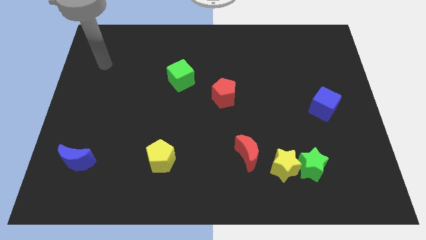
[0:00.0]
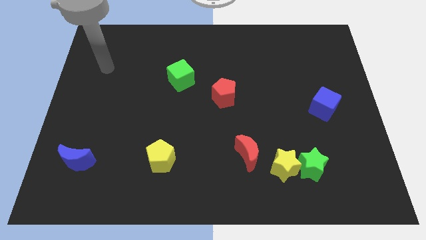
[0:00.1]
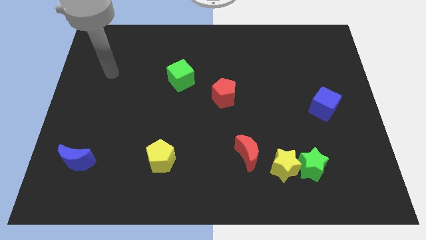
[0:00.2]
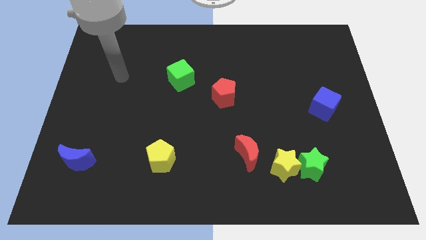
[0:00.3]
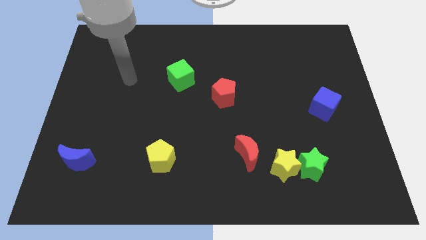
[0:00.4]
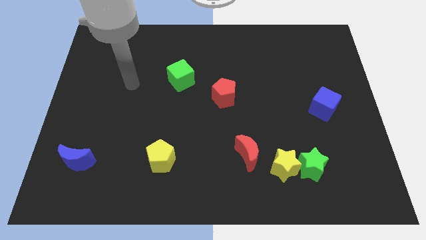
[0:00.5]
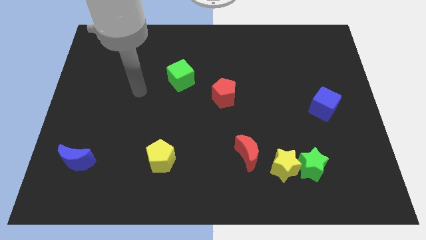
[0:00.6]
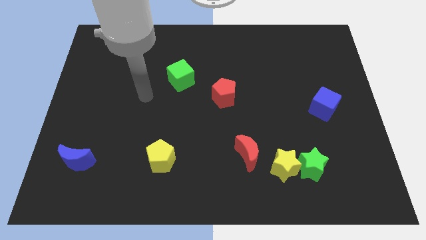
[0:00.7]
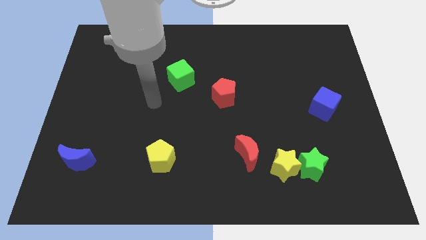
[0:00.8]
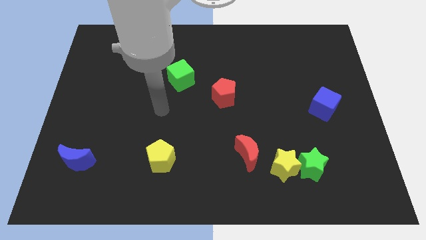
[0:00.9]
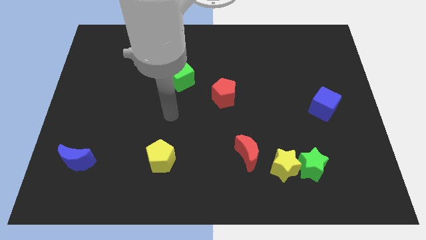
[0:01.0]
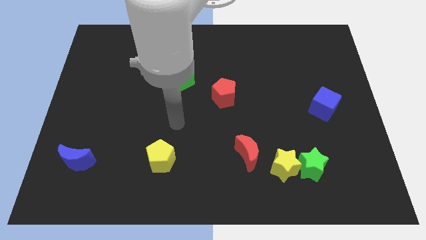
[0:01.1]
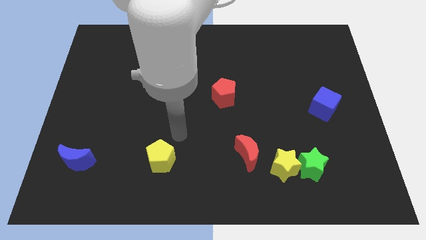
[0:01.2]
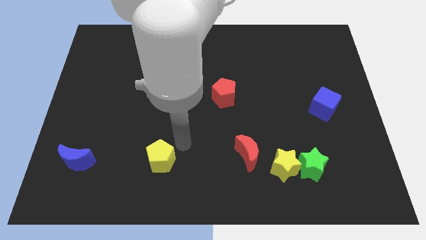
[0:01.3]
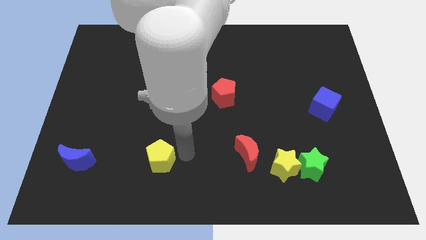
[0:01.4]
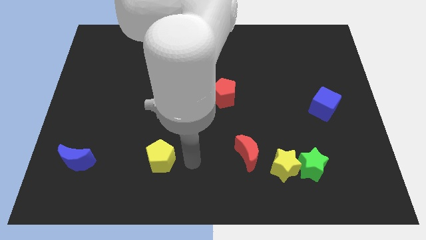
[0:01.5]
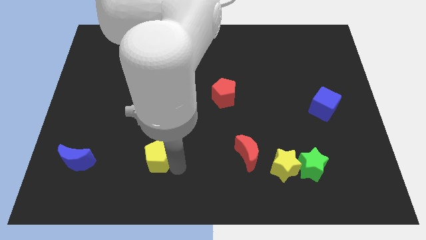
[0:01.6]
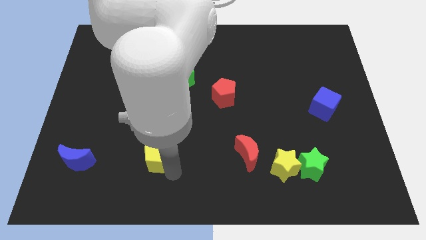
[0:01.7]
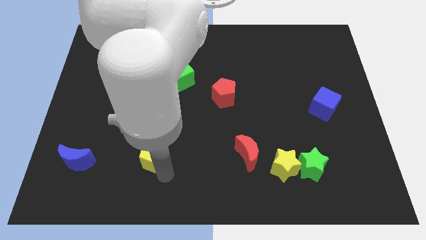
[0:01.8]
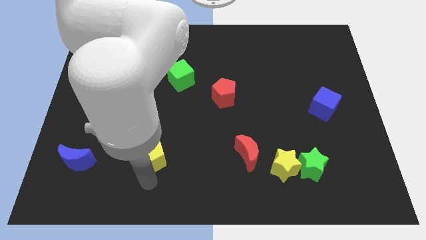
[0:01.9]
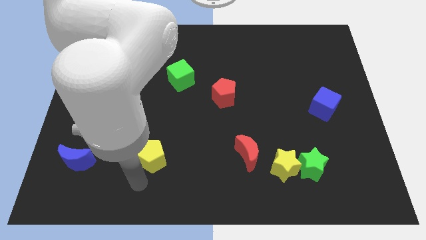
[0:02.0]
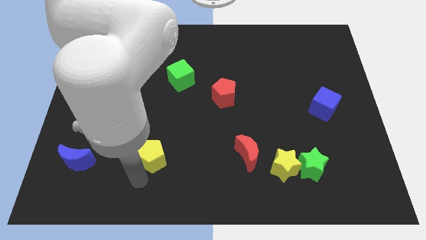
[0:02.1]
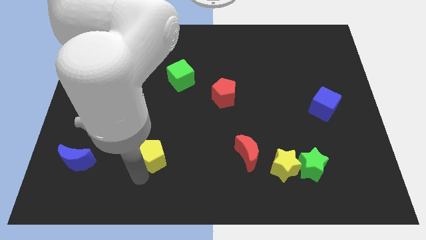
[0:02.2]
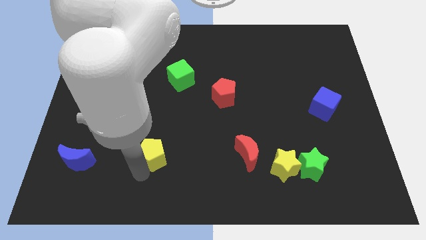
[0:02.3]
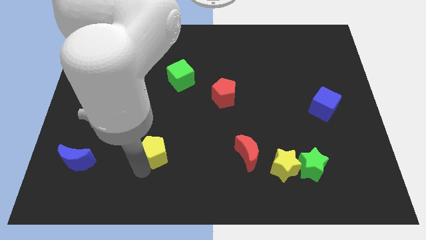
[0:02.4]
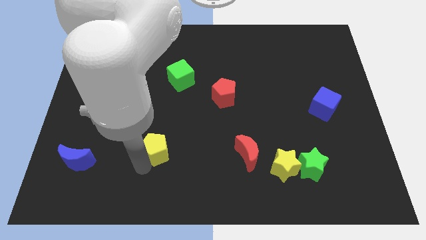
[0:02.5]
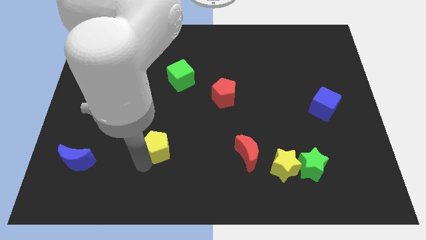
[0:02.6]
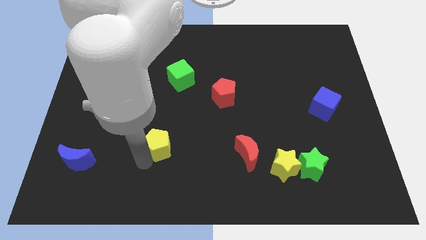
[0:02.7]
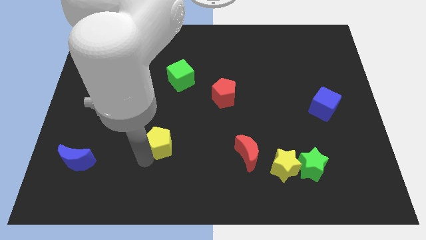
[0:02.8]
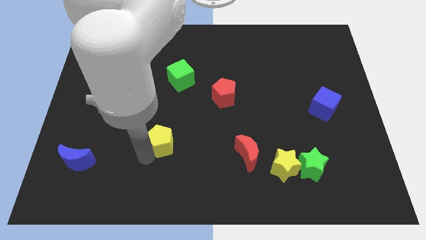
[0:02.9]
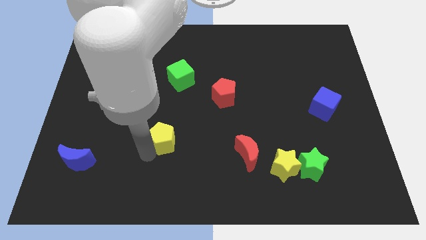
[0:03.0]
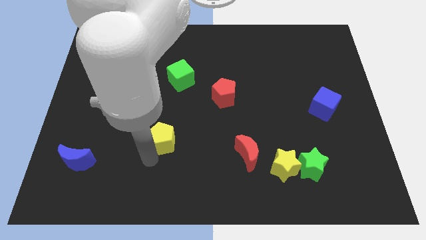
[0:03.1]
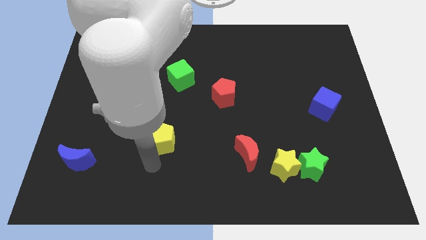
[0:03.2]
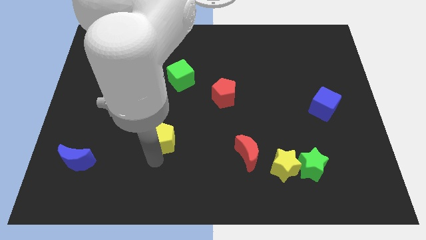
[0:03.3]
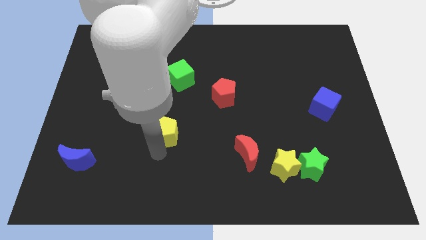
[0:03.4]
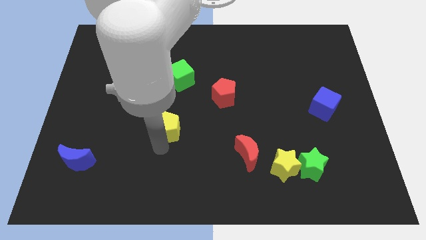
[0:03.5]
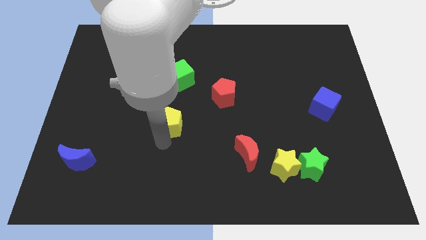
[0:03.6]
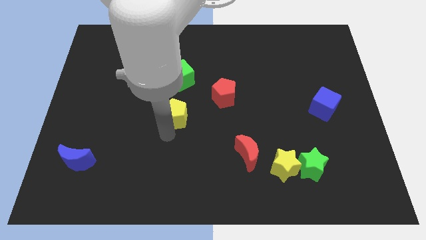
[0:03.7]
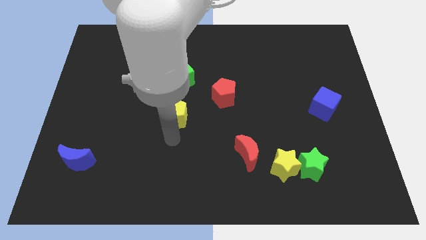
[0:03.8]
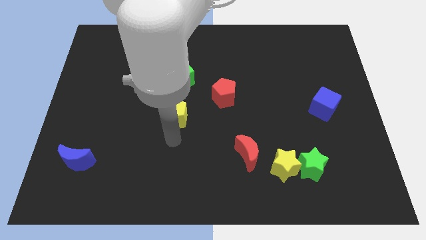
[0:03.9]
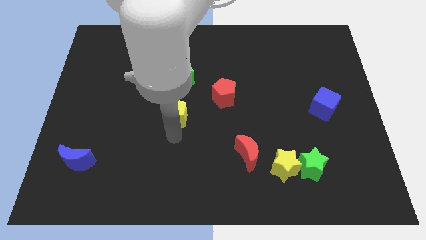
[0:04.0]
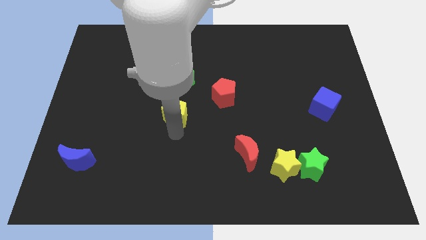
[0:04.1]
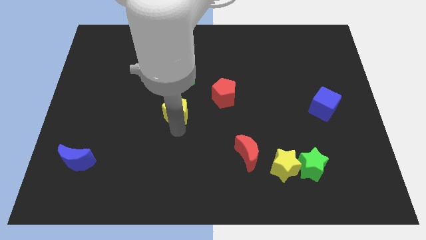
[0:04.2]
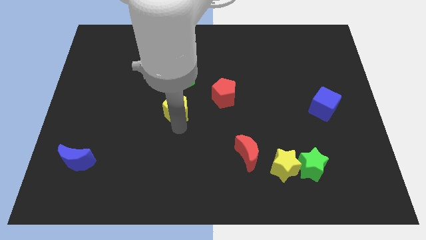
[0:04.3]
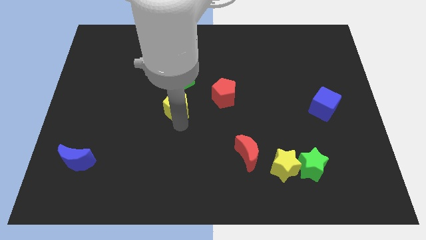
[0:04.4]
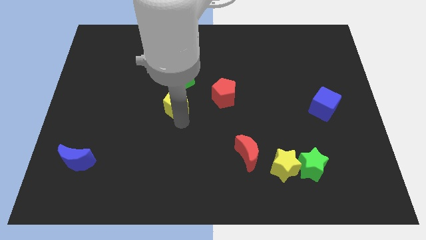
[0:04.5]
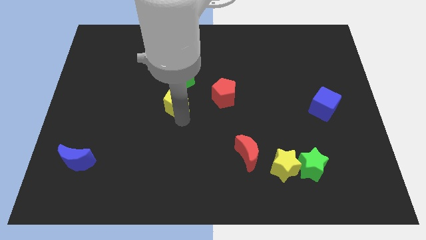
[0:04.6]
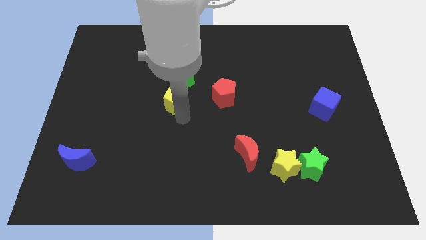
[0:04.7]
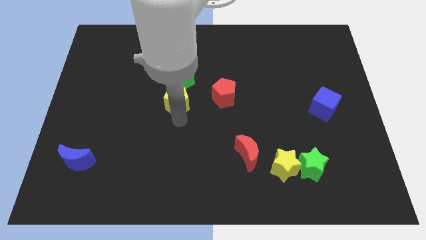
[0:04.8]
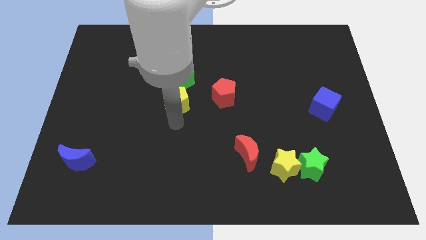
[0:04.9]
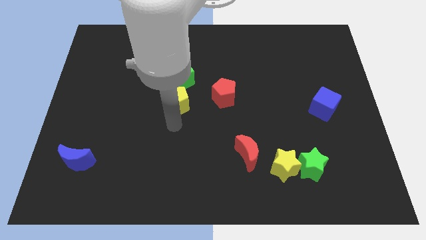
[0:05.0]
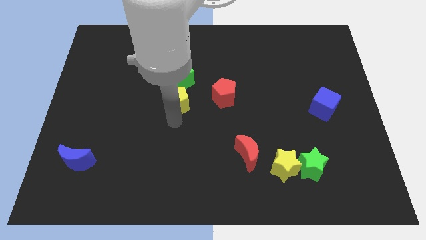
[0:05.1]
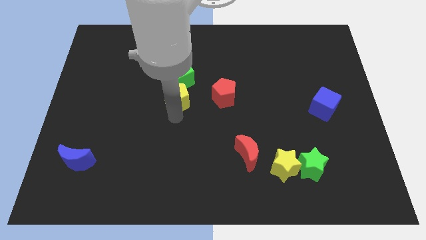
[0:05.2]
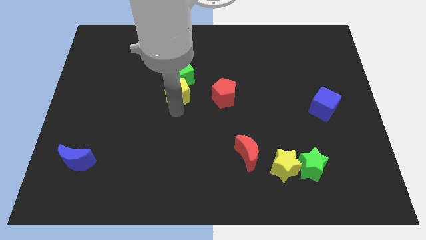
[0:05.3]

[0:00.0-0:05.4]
slide the yellow pentagon next to the green cube

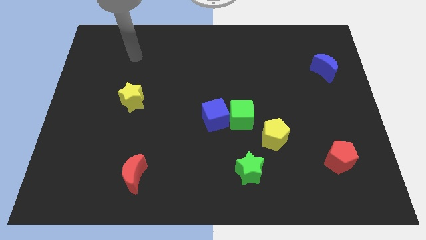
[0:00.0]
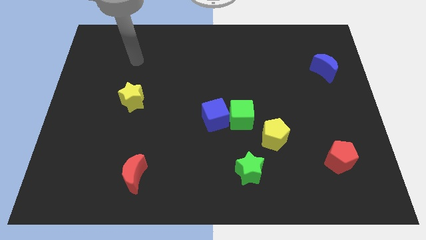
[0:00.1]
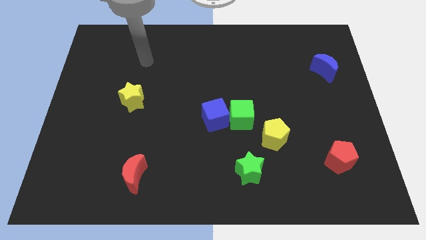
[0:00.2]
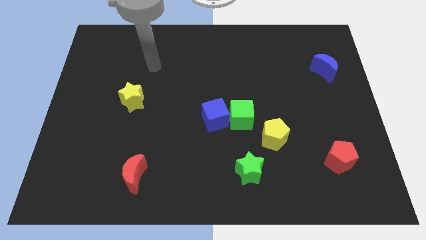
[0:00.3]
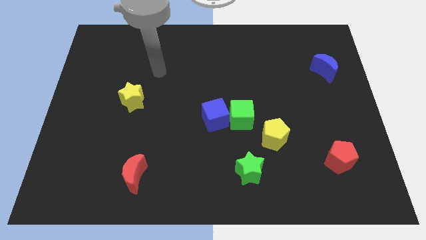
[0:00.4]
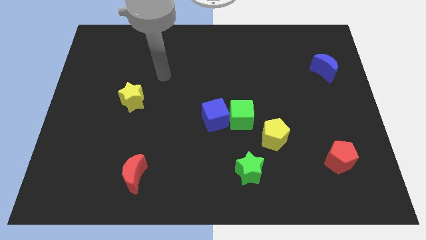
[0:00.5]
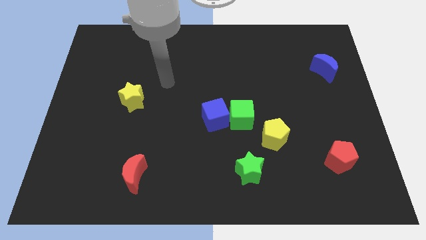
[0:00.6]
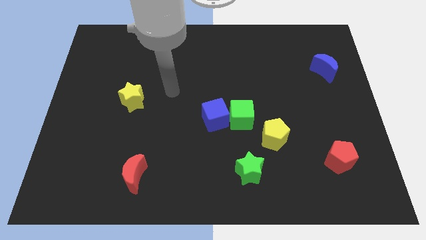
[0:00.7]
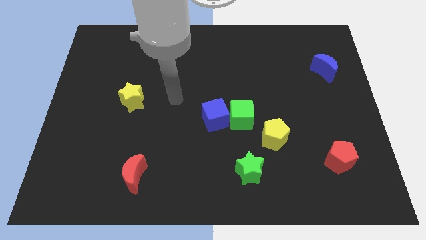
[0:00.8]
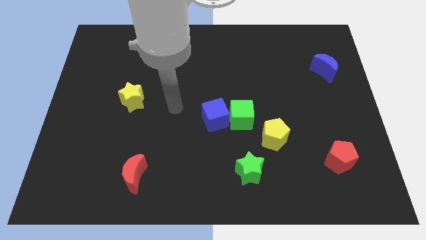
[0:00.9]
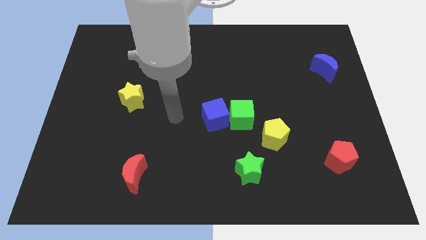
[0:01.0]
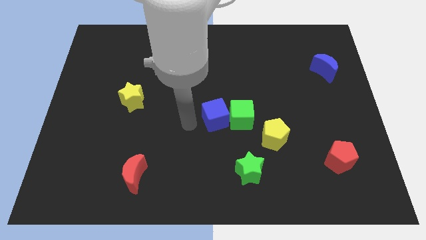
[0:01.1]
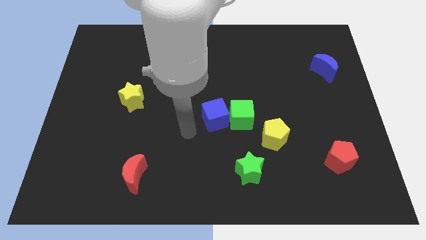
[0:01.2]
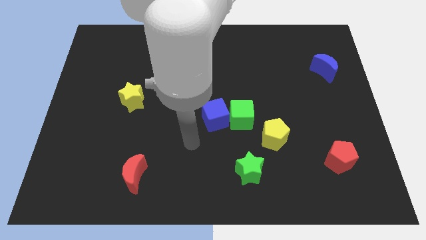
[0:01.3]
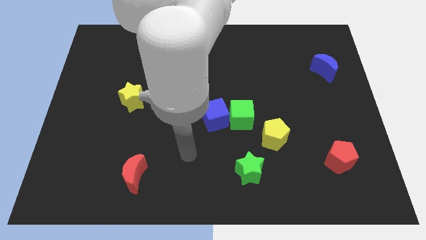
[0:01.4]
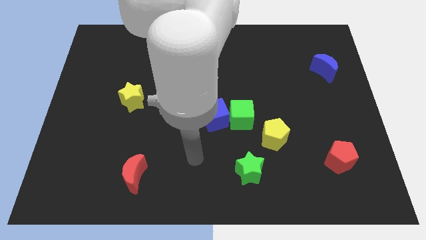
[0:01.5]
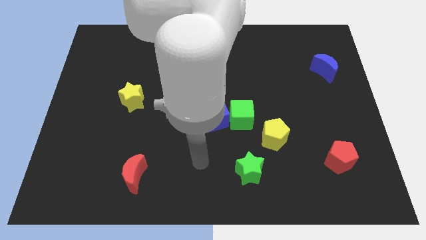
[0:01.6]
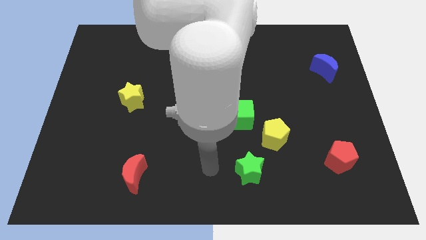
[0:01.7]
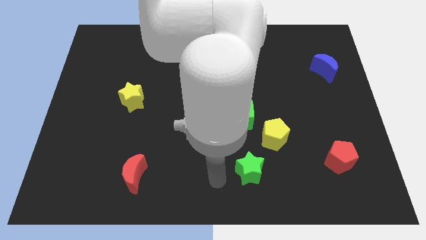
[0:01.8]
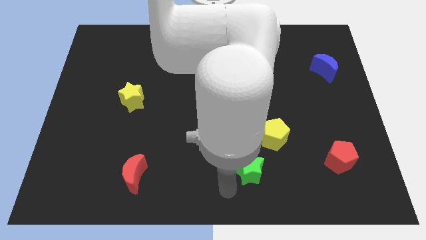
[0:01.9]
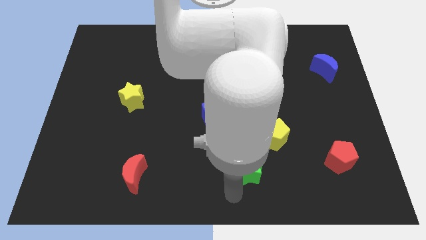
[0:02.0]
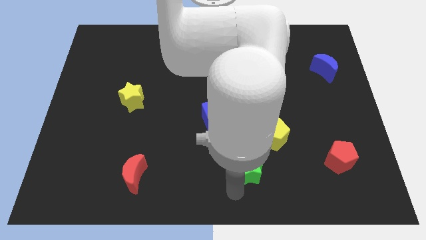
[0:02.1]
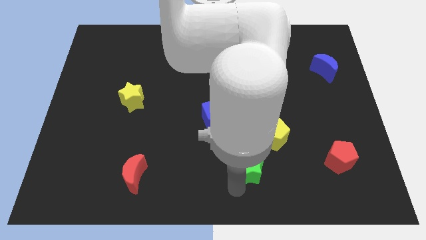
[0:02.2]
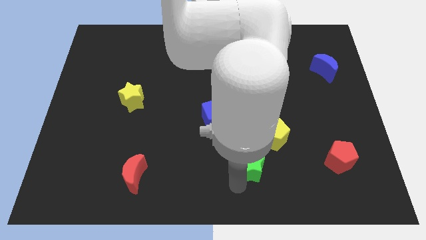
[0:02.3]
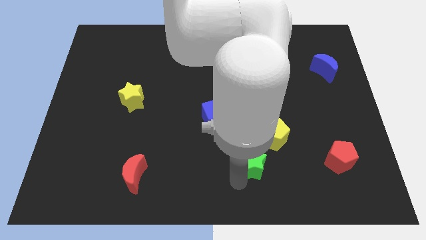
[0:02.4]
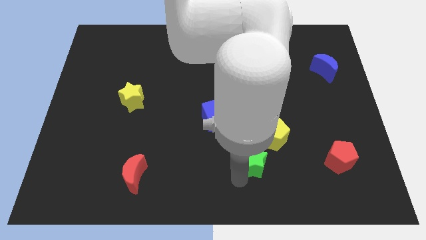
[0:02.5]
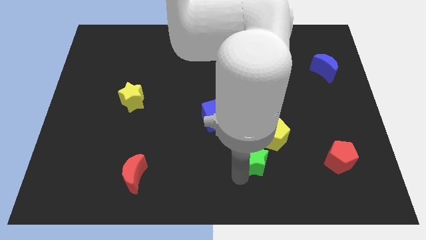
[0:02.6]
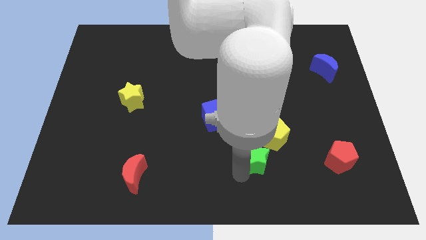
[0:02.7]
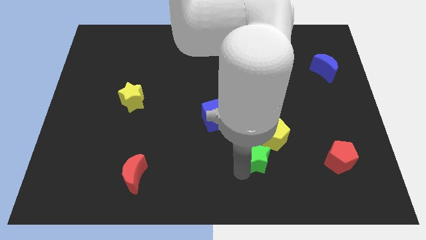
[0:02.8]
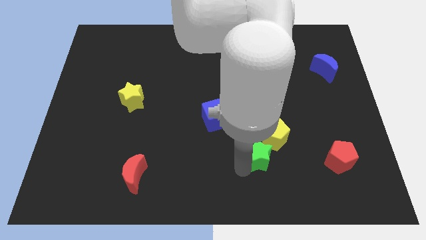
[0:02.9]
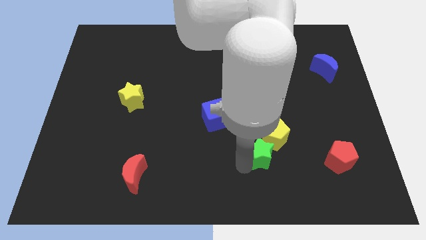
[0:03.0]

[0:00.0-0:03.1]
put the green star towards the yellow pentagon
